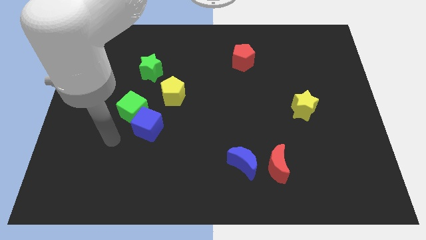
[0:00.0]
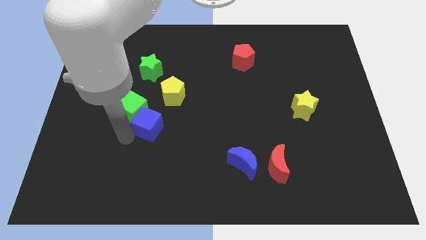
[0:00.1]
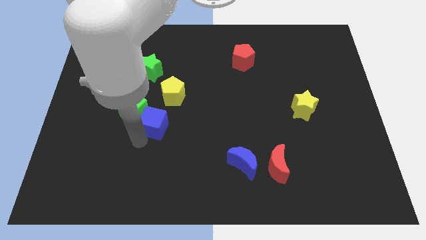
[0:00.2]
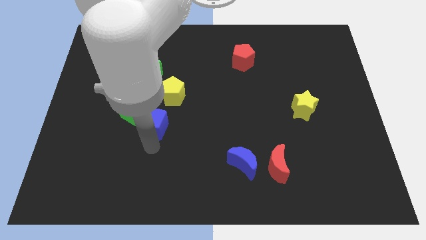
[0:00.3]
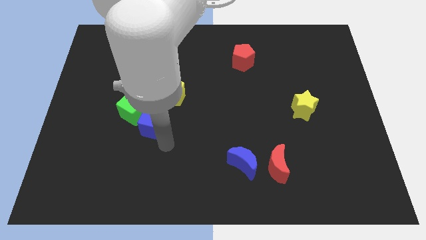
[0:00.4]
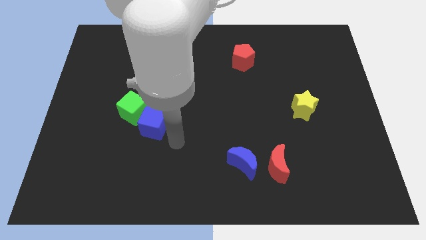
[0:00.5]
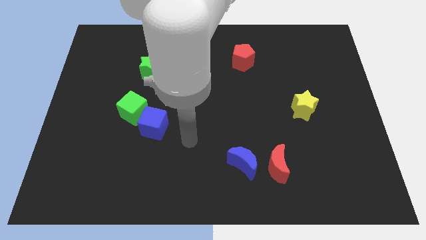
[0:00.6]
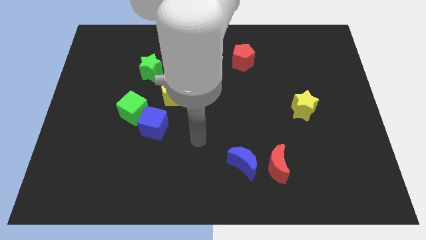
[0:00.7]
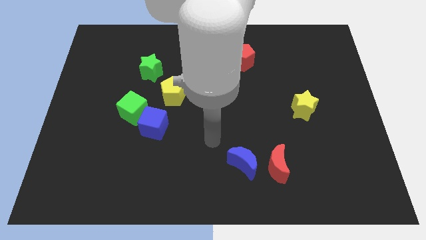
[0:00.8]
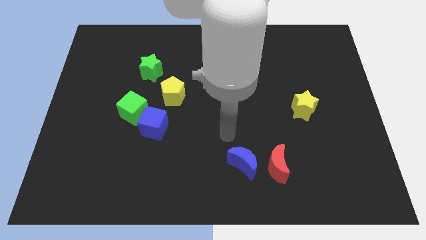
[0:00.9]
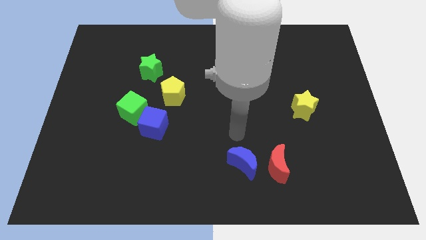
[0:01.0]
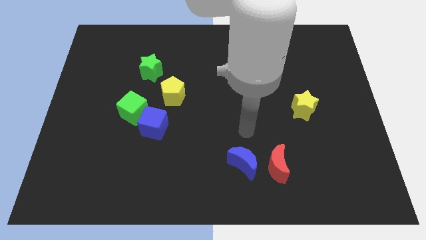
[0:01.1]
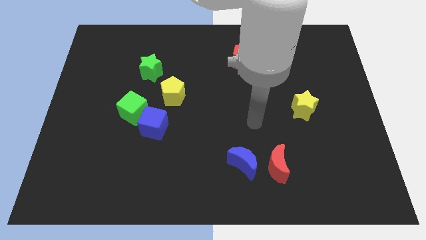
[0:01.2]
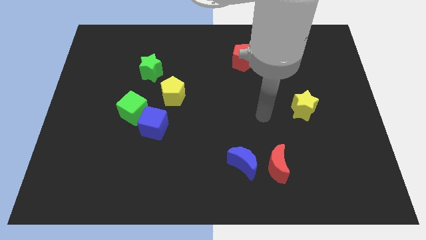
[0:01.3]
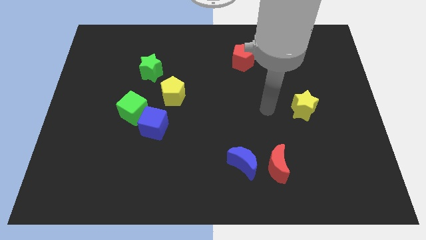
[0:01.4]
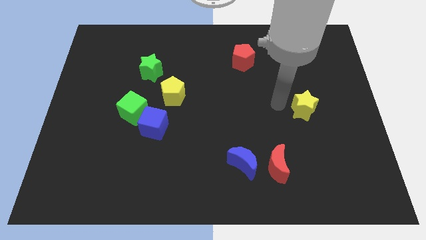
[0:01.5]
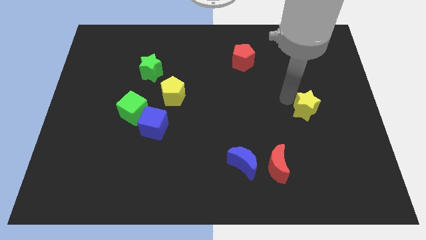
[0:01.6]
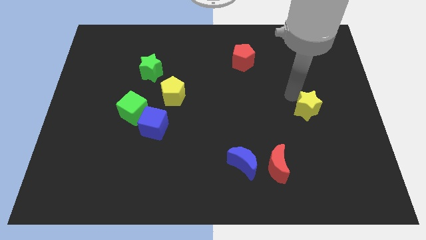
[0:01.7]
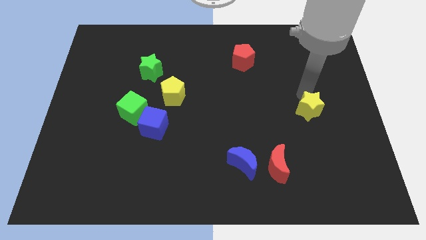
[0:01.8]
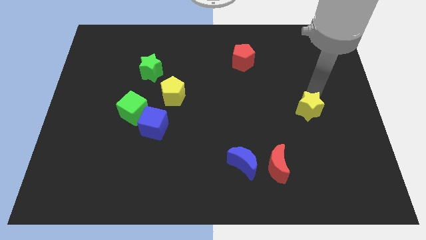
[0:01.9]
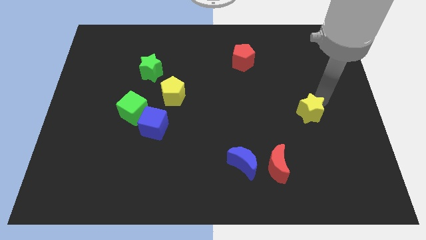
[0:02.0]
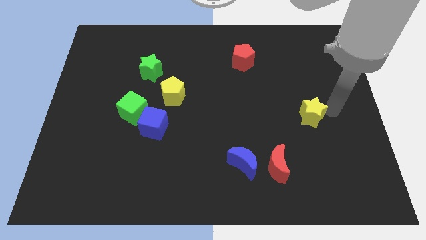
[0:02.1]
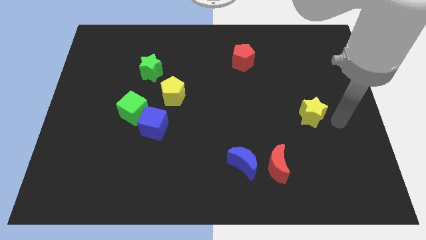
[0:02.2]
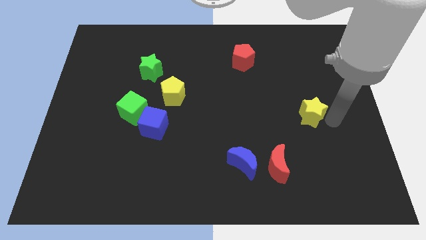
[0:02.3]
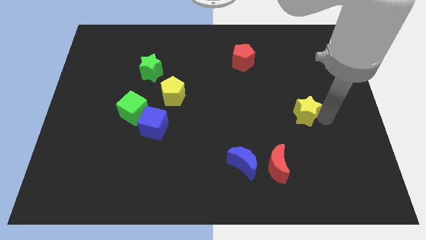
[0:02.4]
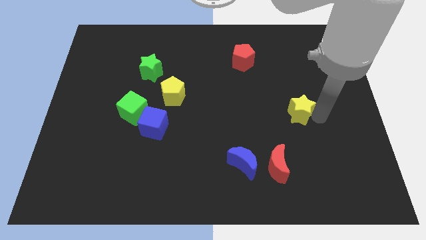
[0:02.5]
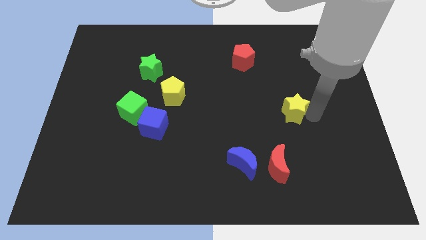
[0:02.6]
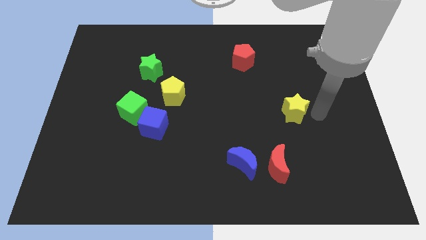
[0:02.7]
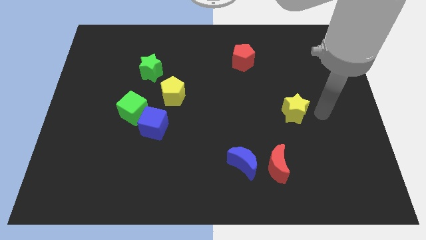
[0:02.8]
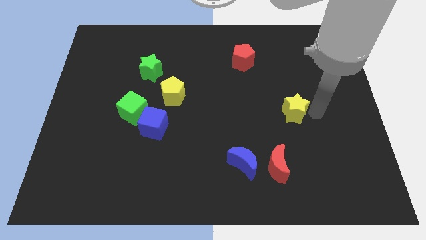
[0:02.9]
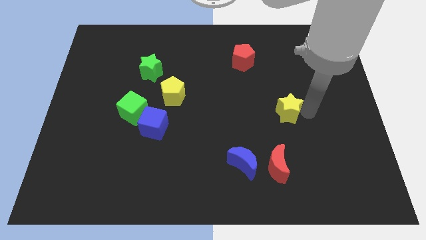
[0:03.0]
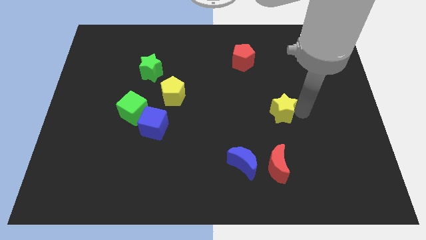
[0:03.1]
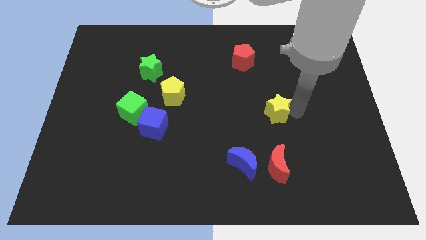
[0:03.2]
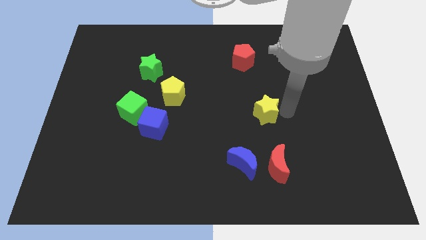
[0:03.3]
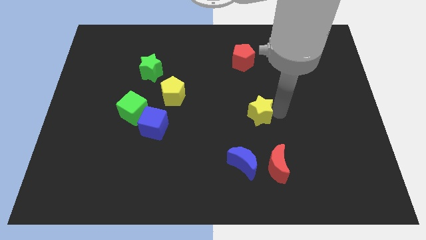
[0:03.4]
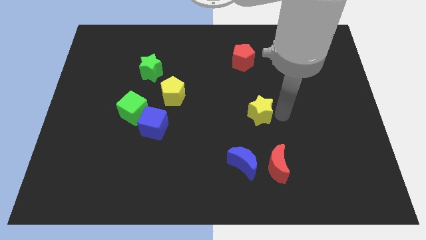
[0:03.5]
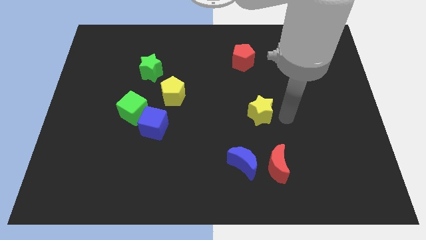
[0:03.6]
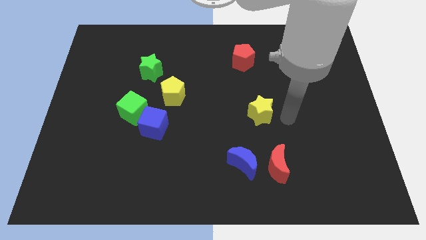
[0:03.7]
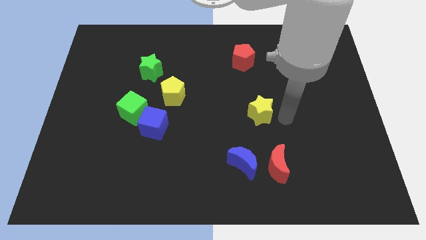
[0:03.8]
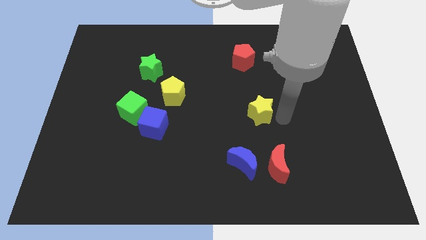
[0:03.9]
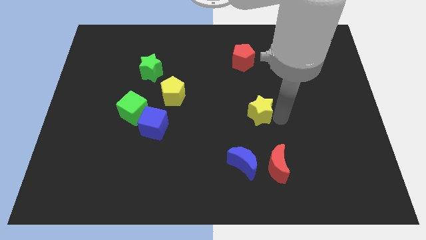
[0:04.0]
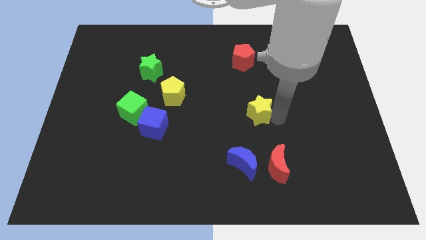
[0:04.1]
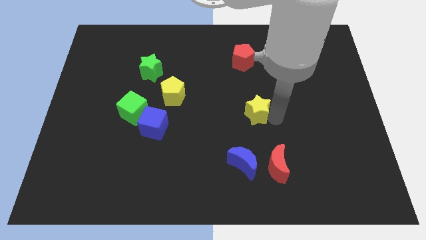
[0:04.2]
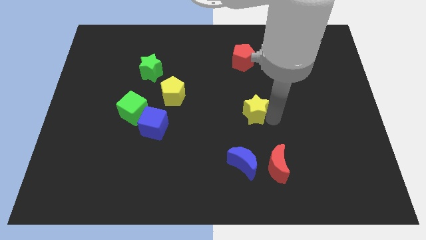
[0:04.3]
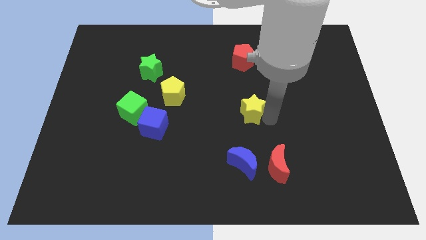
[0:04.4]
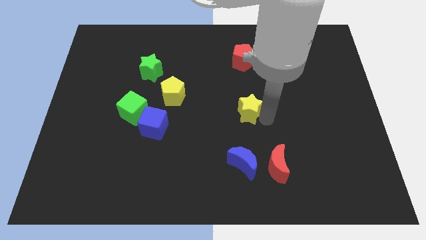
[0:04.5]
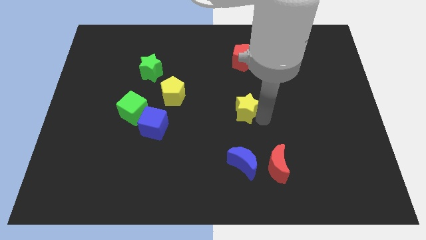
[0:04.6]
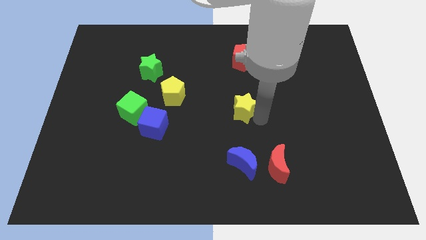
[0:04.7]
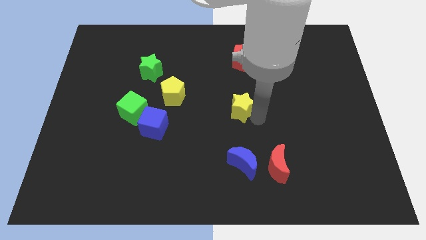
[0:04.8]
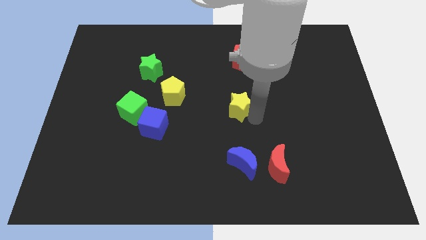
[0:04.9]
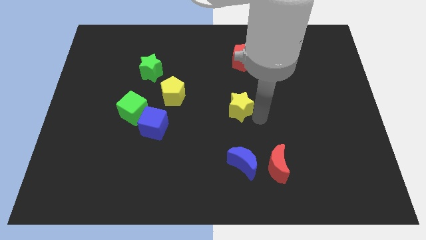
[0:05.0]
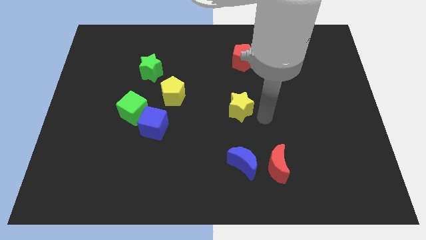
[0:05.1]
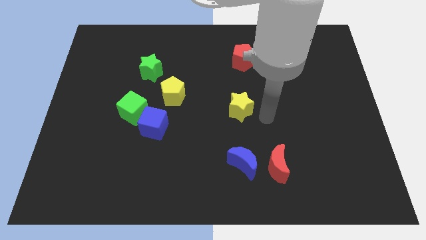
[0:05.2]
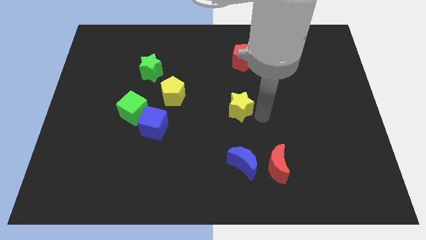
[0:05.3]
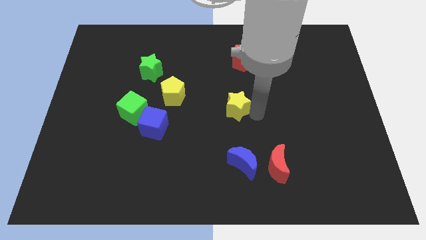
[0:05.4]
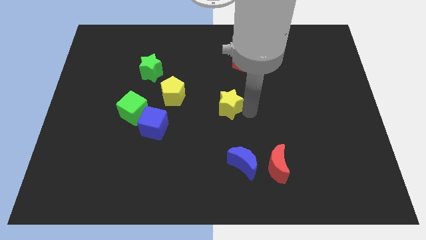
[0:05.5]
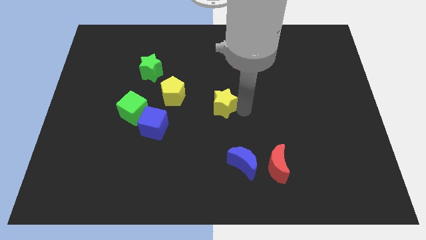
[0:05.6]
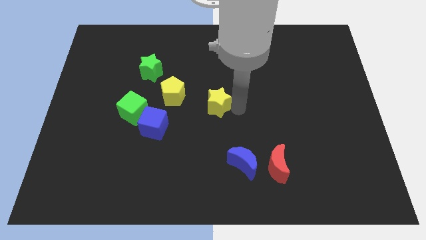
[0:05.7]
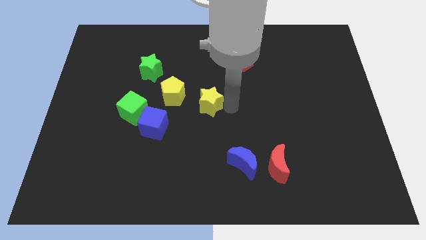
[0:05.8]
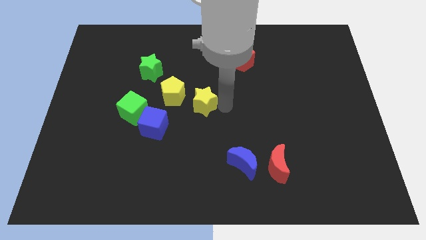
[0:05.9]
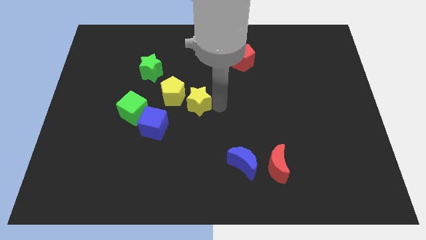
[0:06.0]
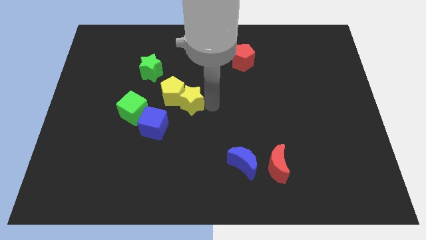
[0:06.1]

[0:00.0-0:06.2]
move the yellow star towards the yellow pentagon

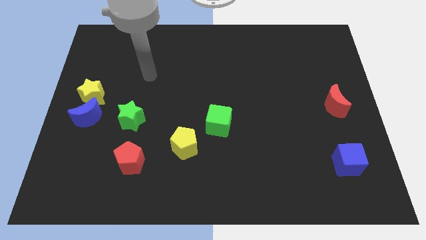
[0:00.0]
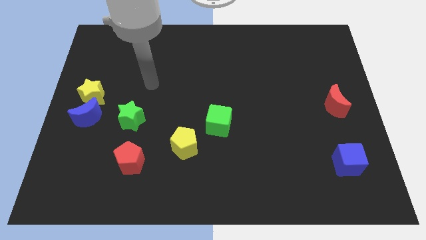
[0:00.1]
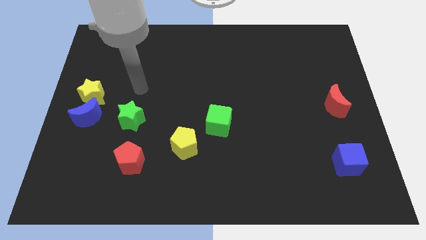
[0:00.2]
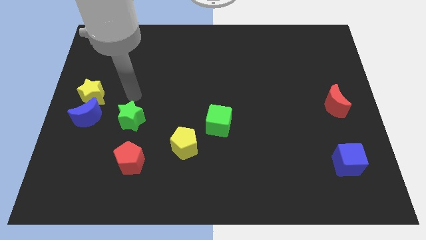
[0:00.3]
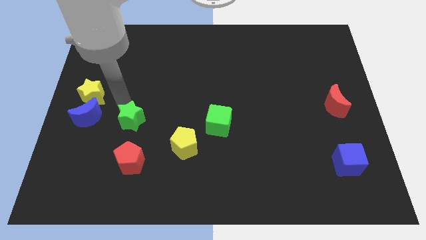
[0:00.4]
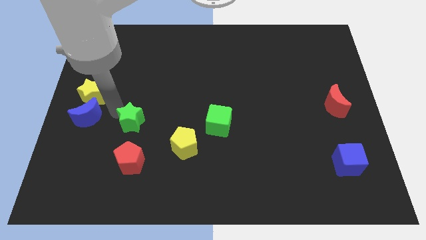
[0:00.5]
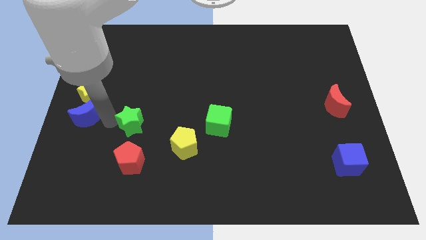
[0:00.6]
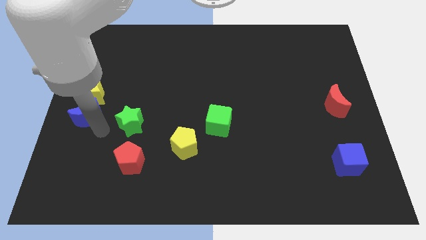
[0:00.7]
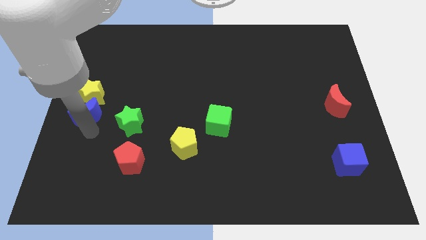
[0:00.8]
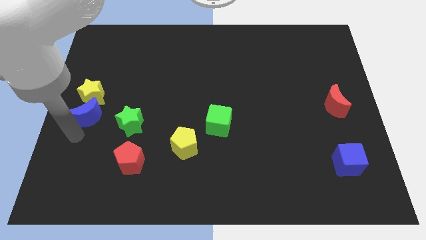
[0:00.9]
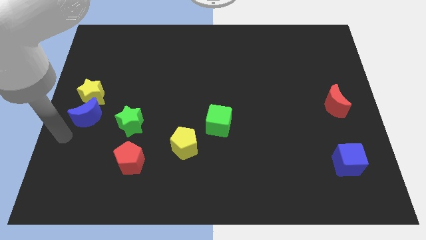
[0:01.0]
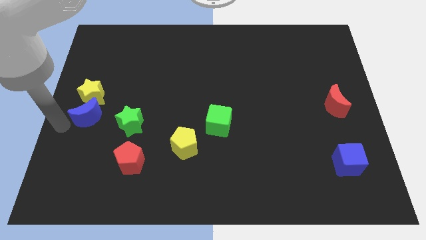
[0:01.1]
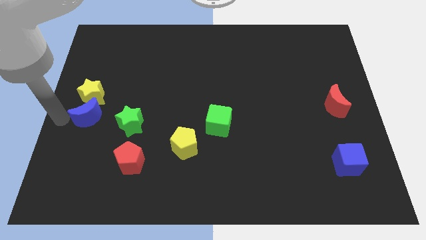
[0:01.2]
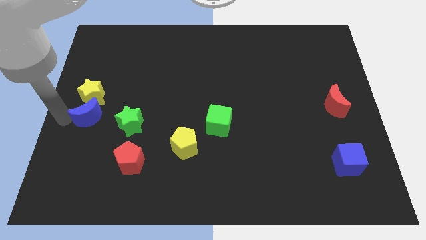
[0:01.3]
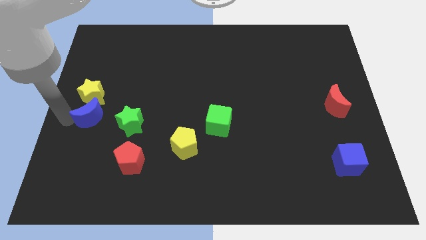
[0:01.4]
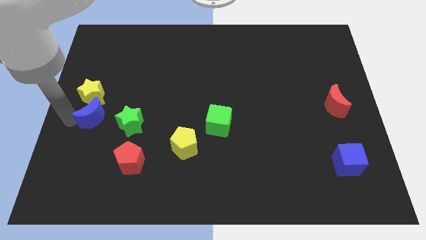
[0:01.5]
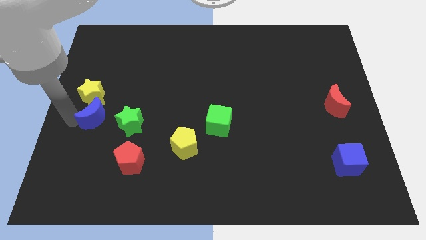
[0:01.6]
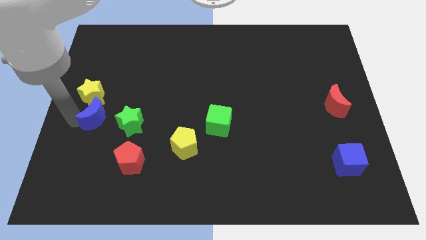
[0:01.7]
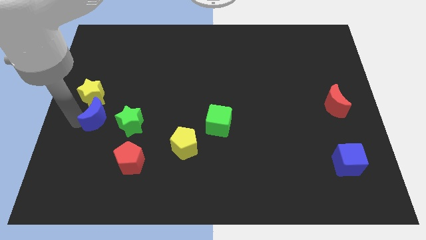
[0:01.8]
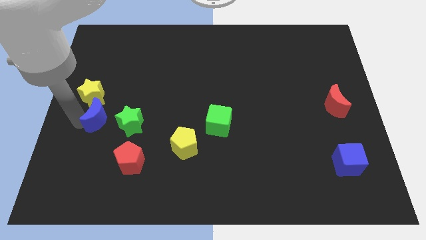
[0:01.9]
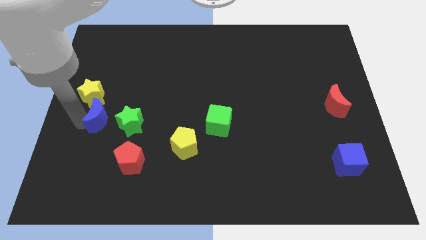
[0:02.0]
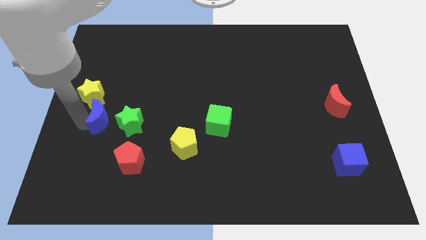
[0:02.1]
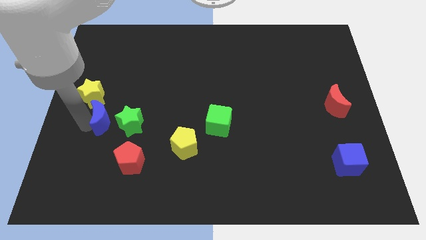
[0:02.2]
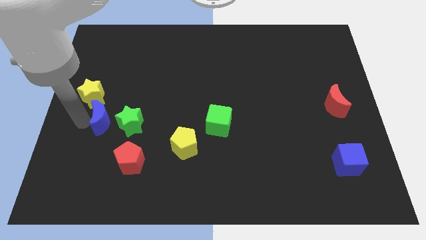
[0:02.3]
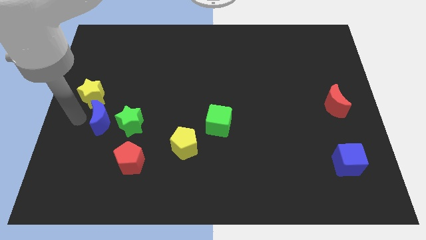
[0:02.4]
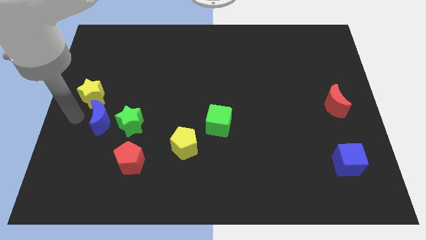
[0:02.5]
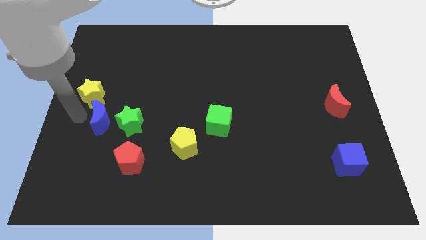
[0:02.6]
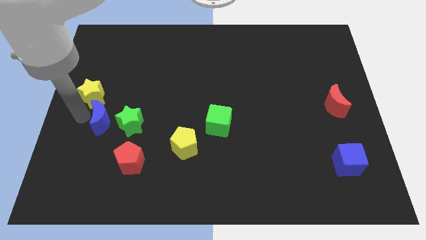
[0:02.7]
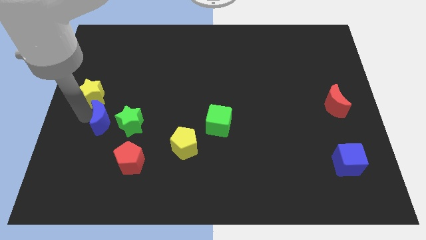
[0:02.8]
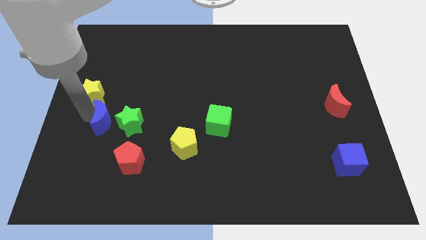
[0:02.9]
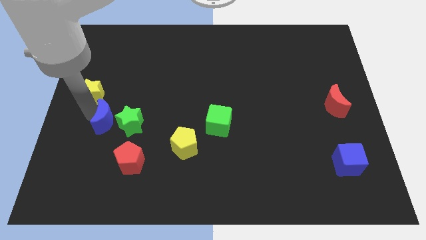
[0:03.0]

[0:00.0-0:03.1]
put the blue moon to the green star
